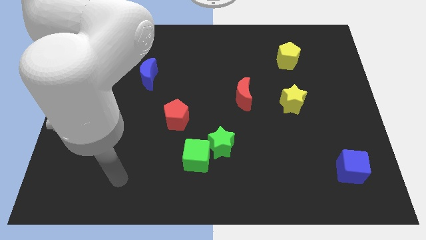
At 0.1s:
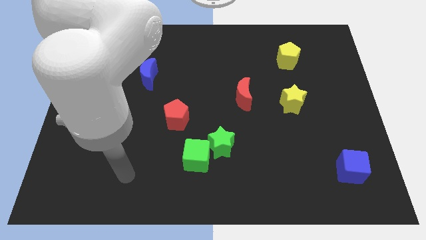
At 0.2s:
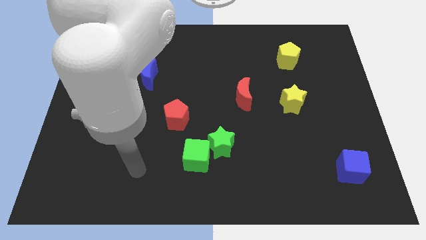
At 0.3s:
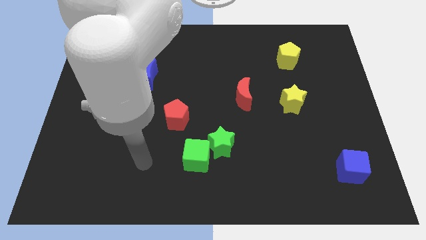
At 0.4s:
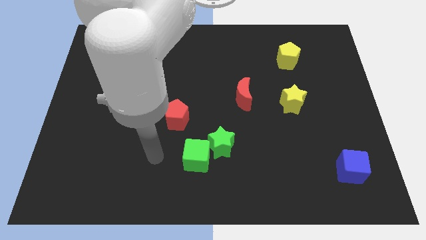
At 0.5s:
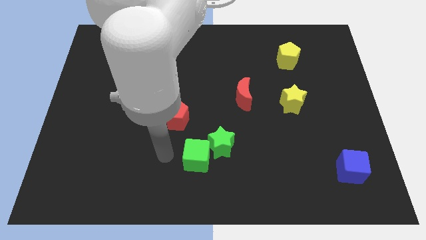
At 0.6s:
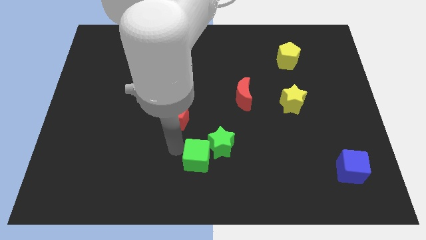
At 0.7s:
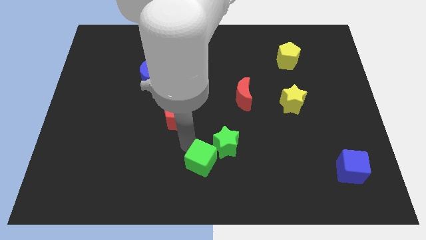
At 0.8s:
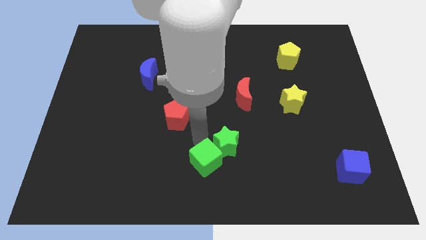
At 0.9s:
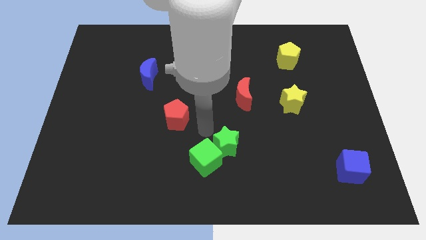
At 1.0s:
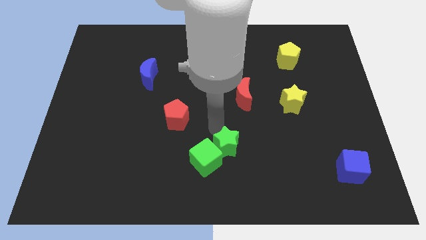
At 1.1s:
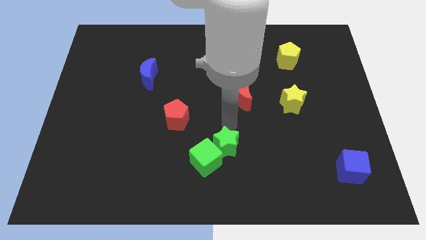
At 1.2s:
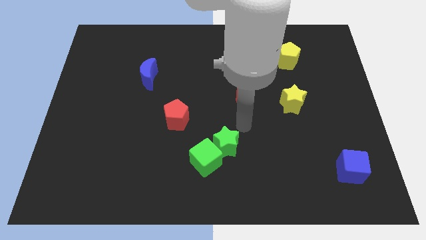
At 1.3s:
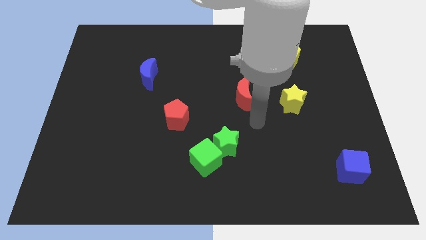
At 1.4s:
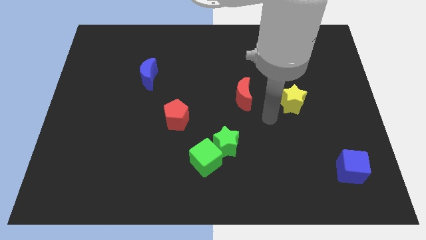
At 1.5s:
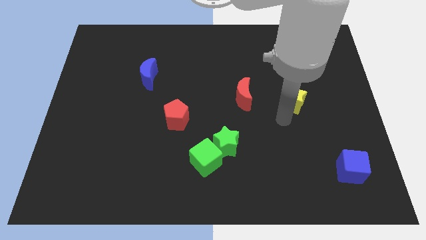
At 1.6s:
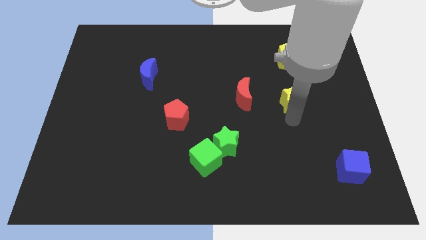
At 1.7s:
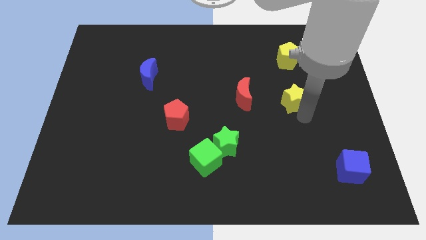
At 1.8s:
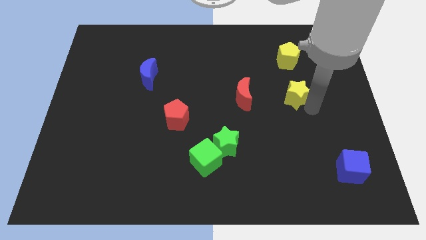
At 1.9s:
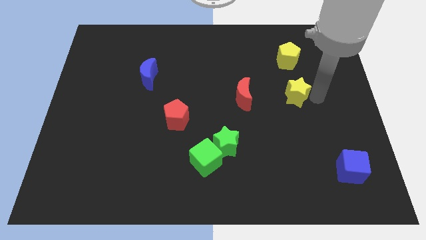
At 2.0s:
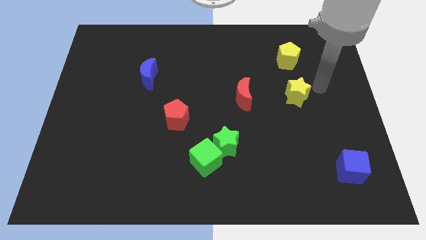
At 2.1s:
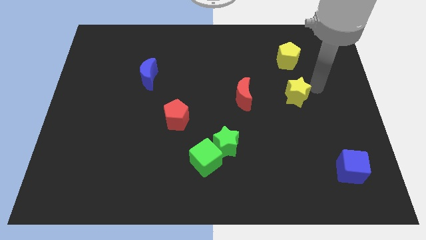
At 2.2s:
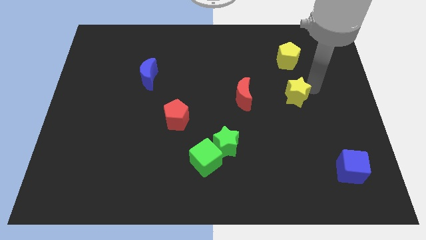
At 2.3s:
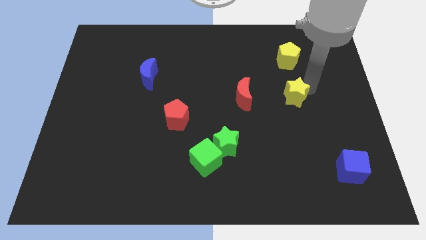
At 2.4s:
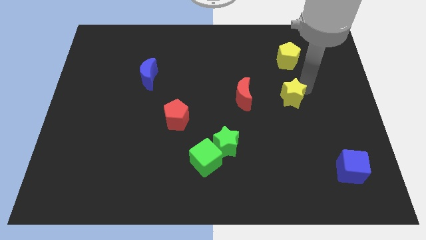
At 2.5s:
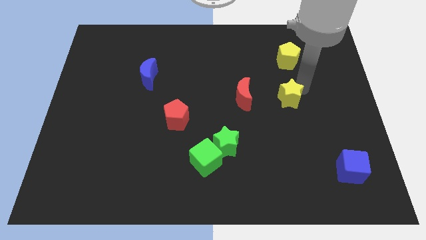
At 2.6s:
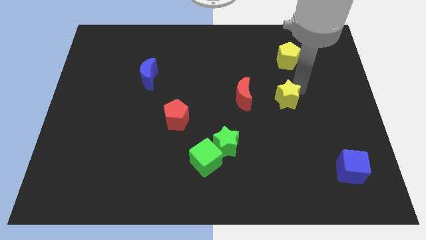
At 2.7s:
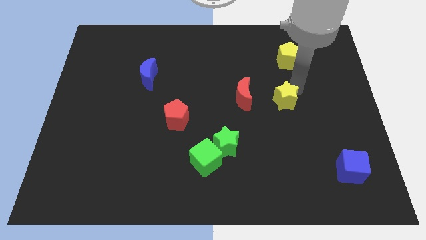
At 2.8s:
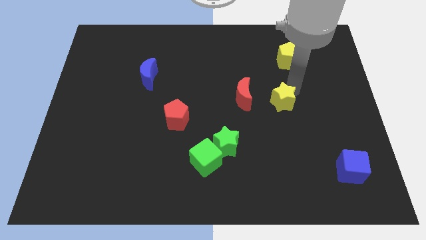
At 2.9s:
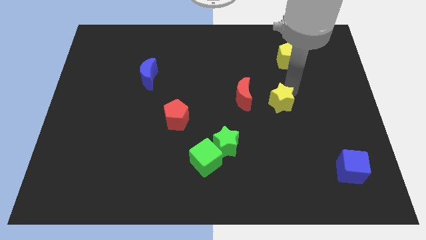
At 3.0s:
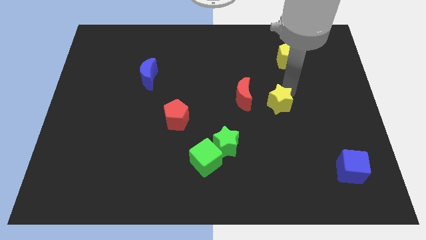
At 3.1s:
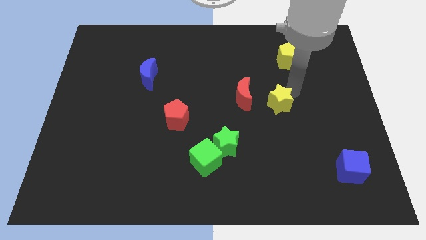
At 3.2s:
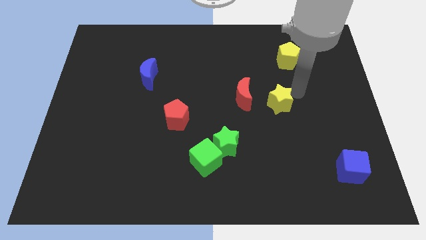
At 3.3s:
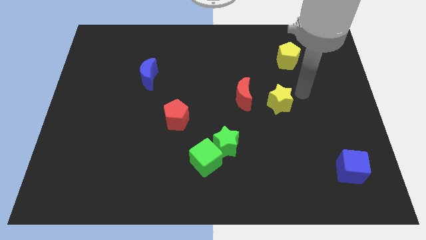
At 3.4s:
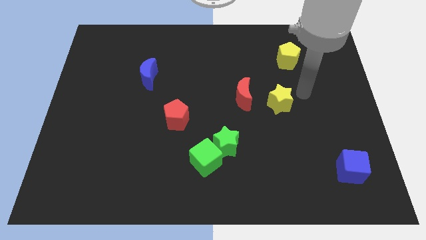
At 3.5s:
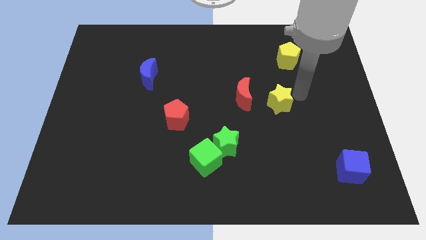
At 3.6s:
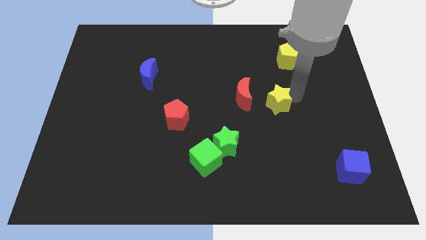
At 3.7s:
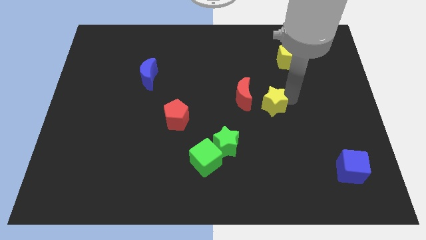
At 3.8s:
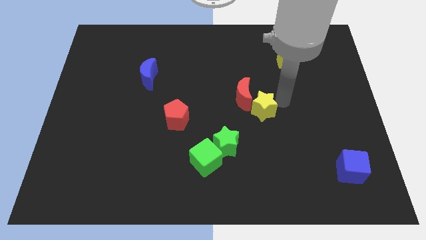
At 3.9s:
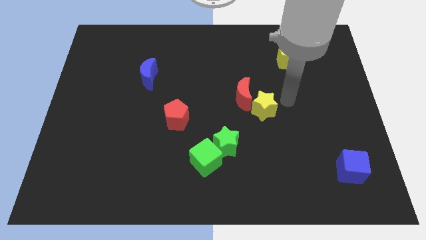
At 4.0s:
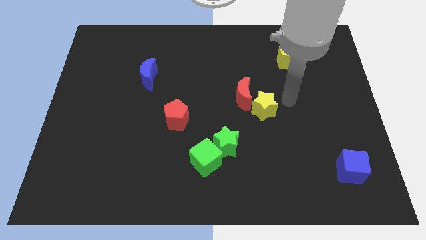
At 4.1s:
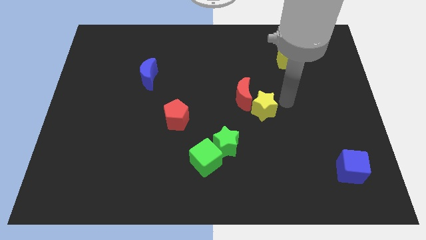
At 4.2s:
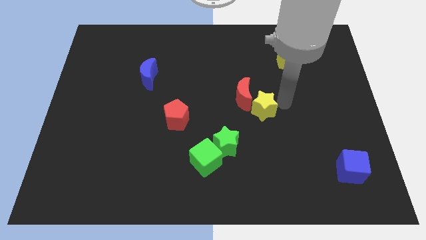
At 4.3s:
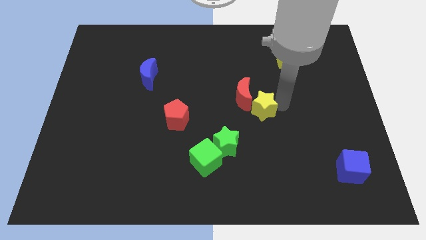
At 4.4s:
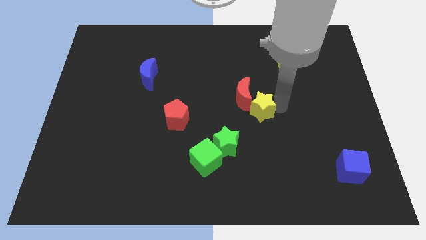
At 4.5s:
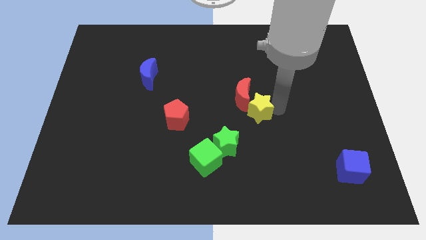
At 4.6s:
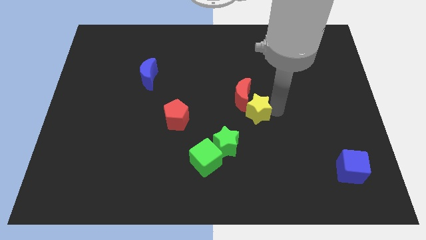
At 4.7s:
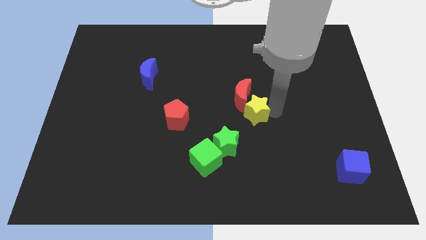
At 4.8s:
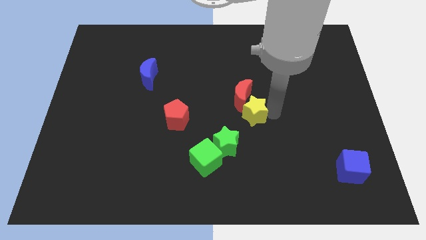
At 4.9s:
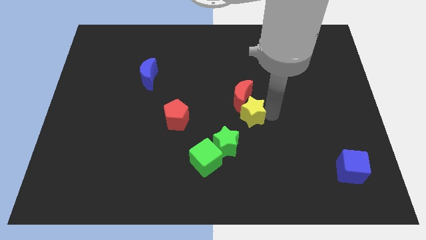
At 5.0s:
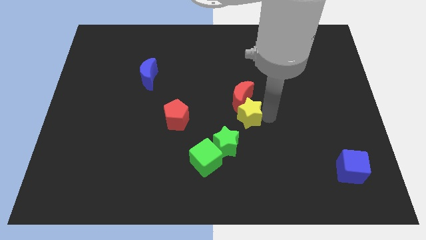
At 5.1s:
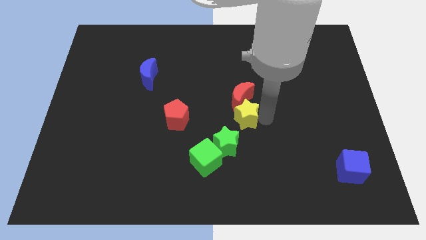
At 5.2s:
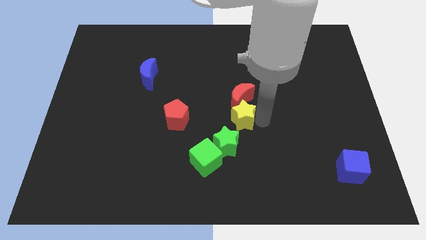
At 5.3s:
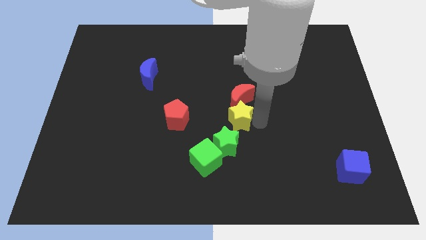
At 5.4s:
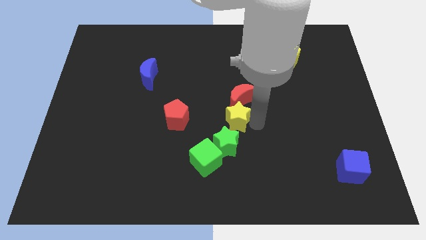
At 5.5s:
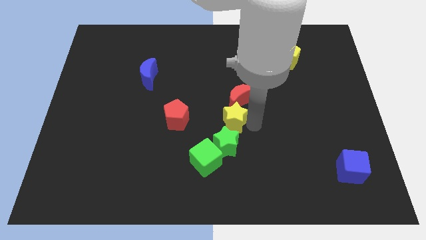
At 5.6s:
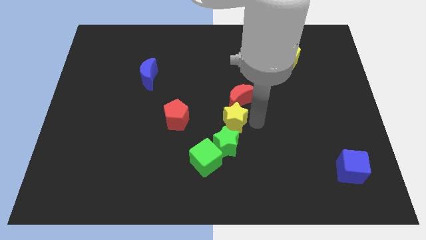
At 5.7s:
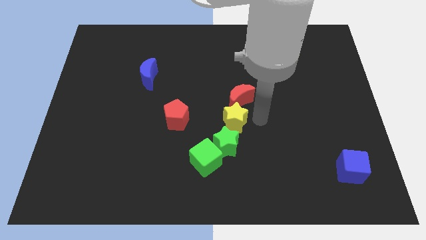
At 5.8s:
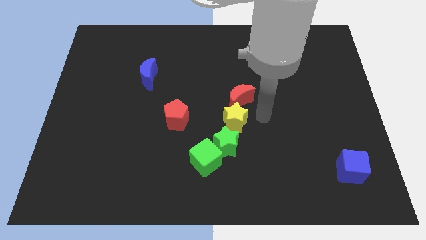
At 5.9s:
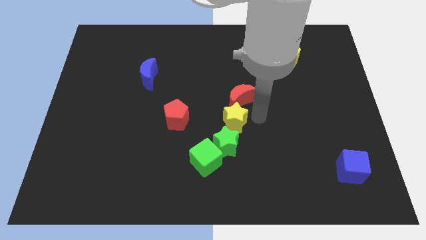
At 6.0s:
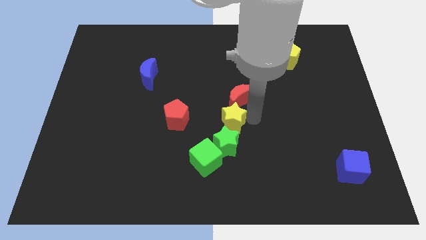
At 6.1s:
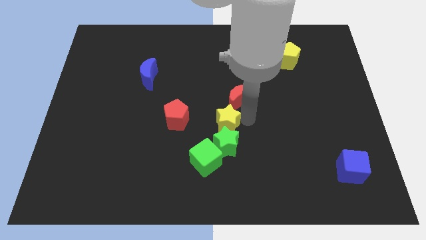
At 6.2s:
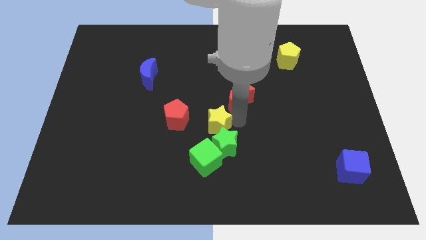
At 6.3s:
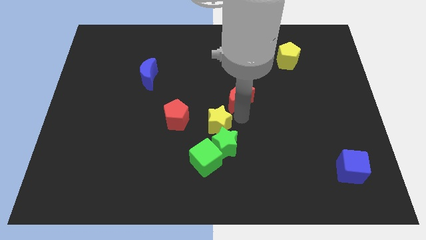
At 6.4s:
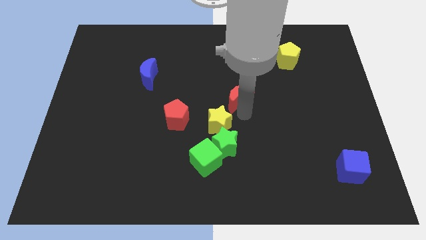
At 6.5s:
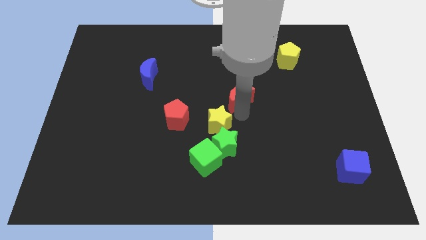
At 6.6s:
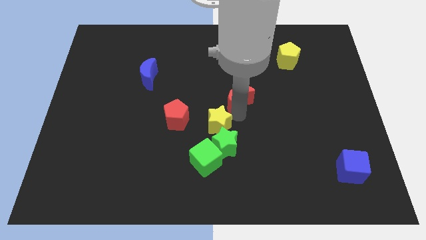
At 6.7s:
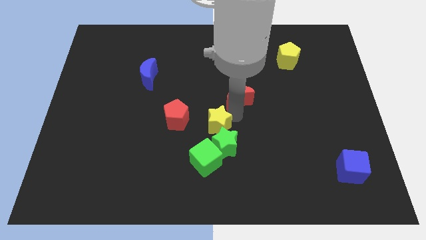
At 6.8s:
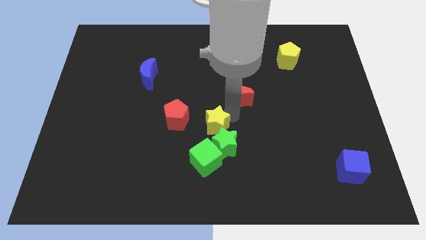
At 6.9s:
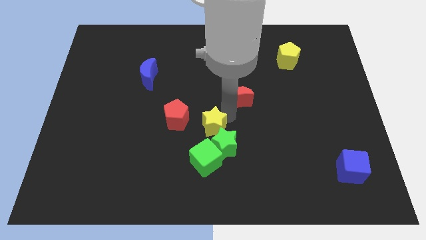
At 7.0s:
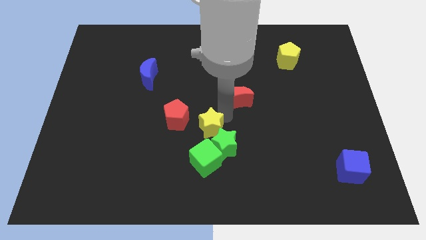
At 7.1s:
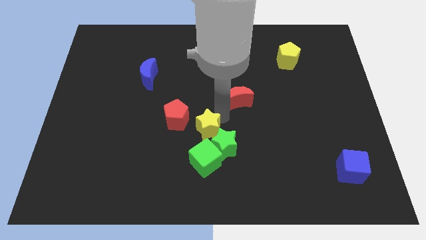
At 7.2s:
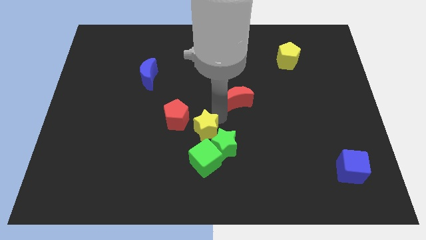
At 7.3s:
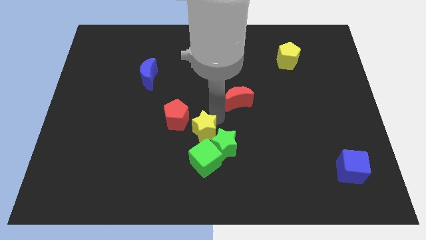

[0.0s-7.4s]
slide the yellow star just left of the green star
